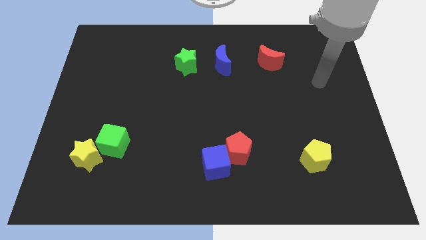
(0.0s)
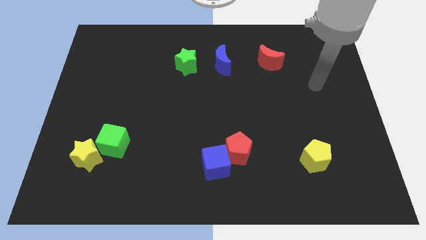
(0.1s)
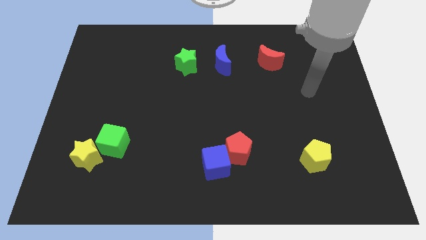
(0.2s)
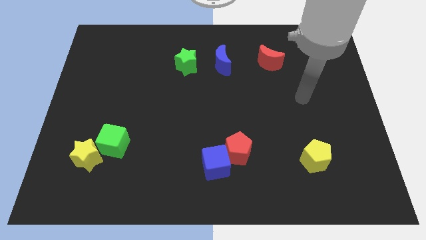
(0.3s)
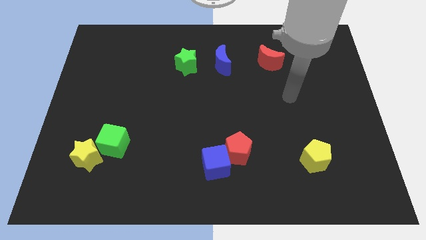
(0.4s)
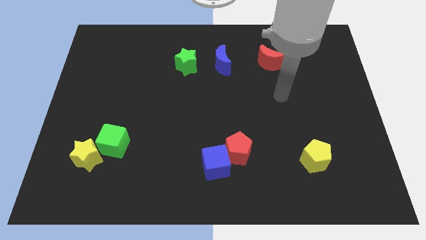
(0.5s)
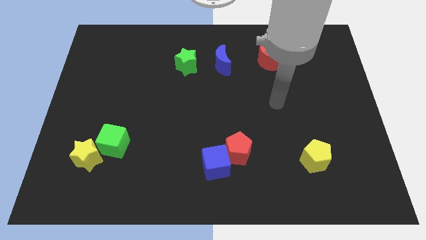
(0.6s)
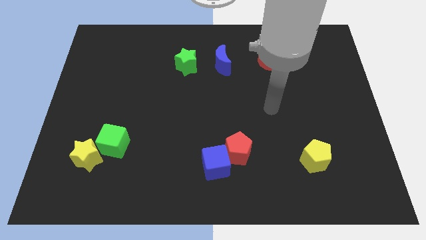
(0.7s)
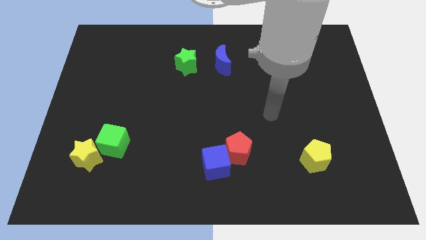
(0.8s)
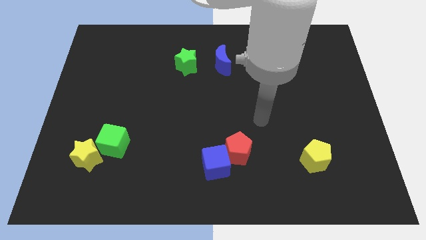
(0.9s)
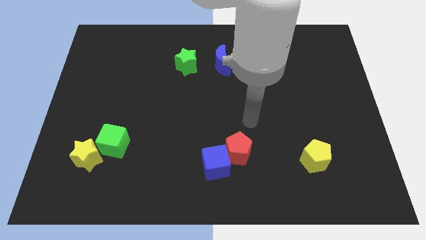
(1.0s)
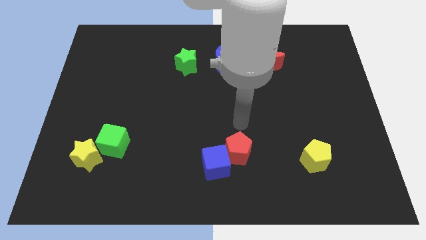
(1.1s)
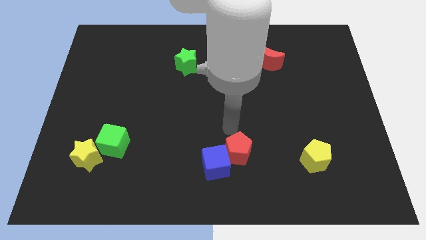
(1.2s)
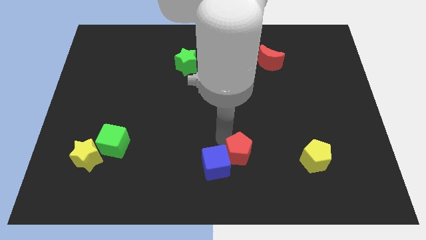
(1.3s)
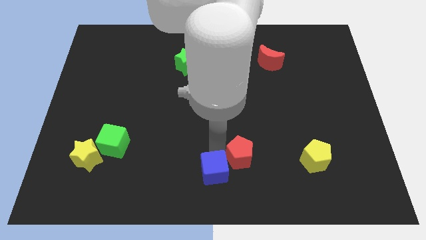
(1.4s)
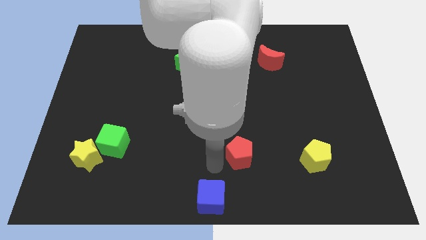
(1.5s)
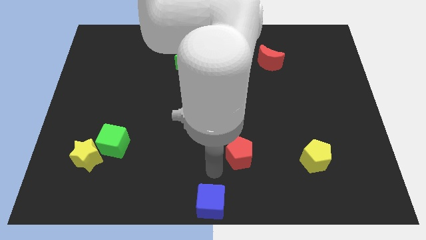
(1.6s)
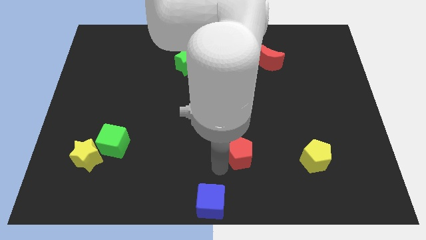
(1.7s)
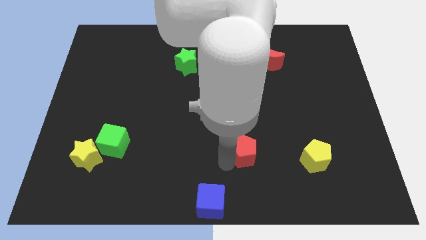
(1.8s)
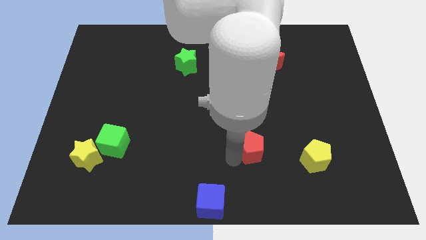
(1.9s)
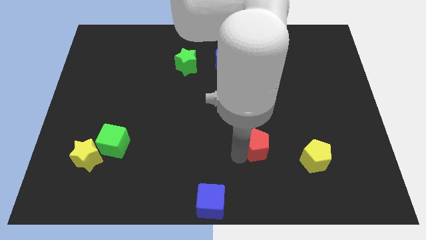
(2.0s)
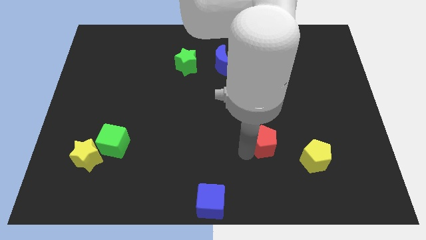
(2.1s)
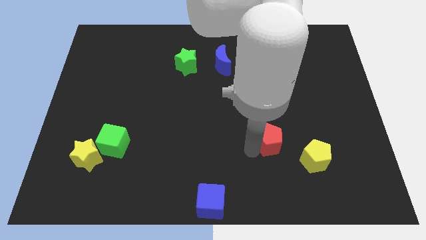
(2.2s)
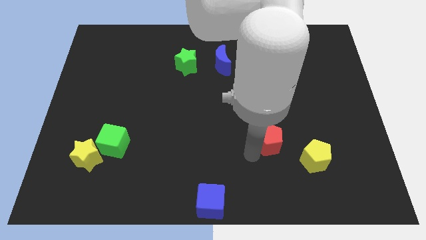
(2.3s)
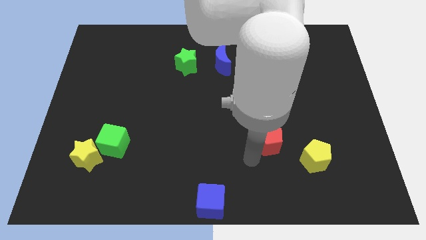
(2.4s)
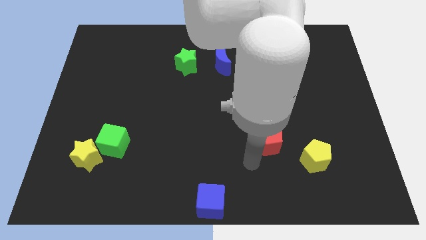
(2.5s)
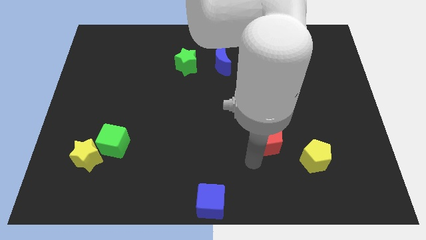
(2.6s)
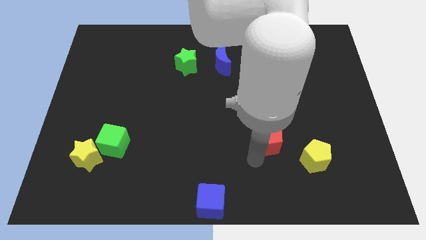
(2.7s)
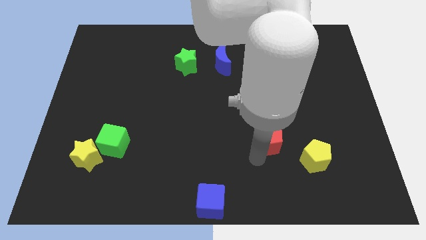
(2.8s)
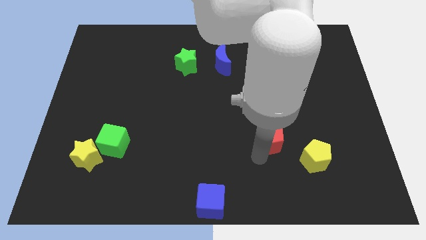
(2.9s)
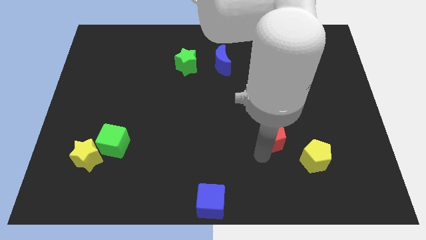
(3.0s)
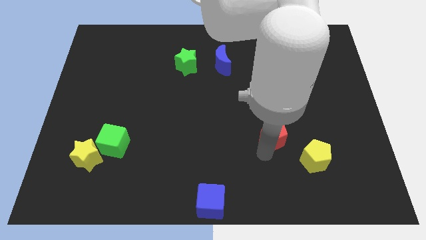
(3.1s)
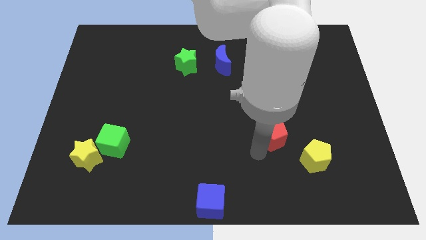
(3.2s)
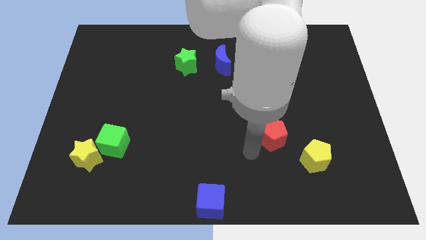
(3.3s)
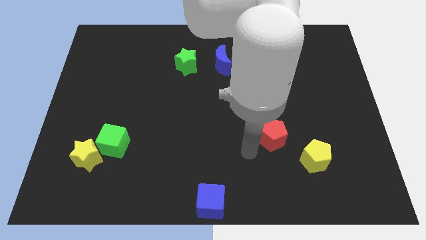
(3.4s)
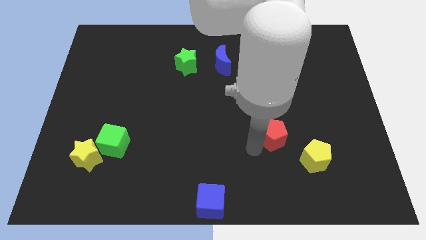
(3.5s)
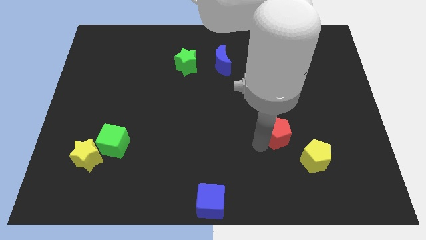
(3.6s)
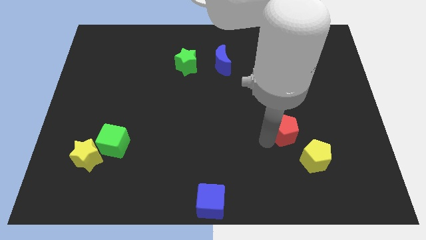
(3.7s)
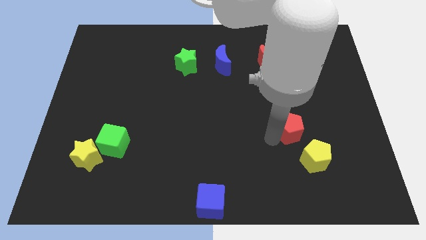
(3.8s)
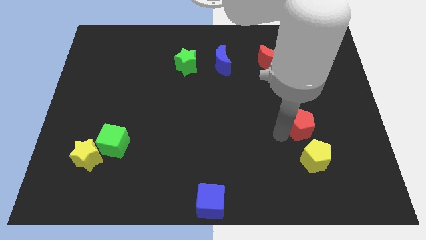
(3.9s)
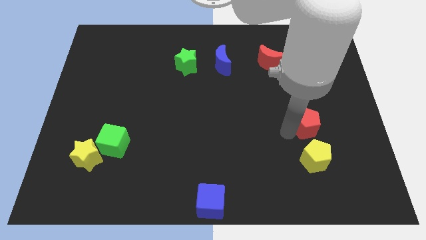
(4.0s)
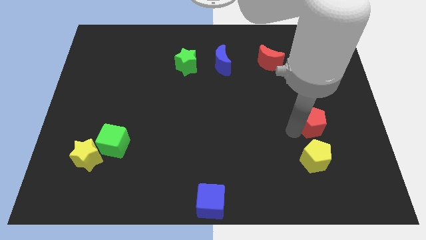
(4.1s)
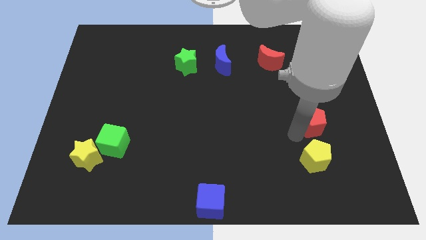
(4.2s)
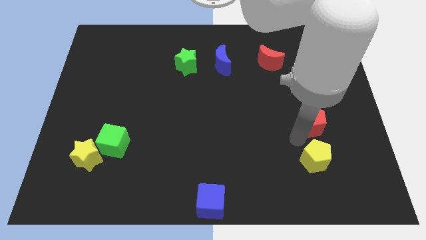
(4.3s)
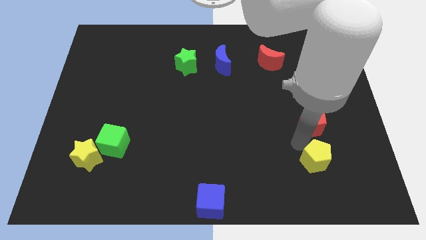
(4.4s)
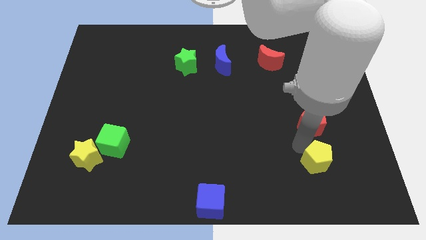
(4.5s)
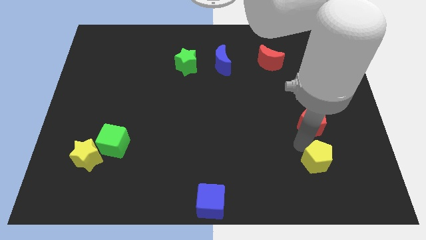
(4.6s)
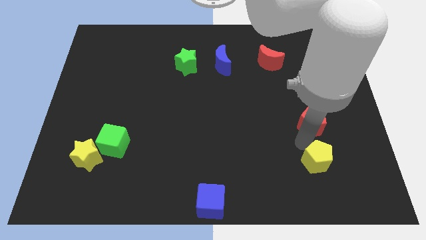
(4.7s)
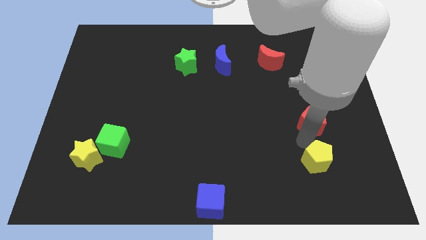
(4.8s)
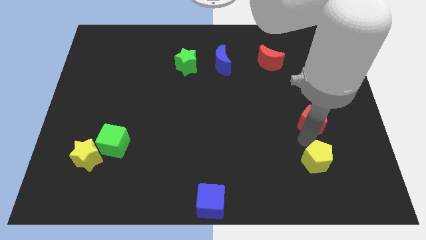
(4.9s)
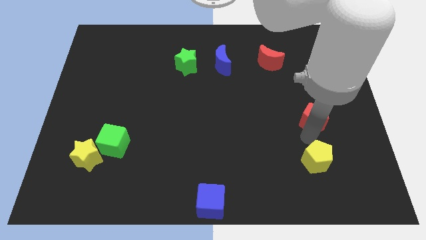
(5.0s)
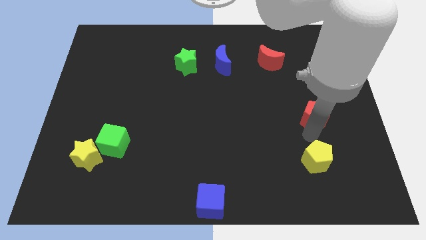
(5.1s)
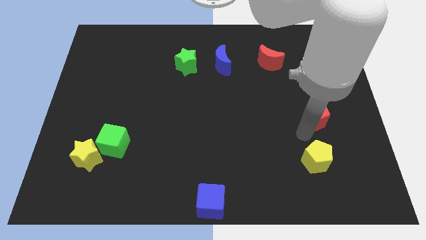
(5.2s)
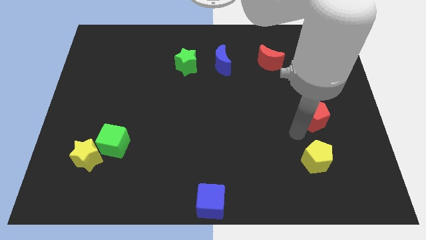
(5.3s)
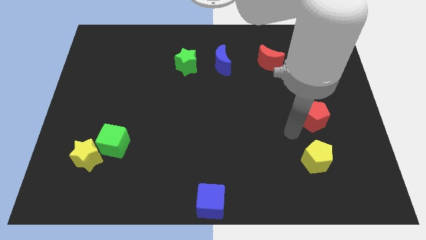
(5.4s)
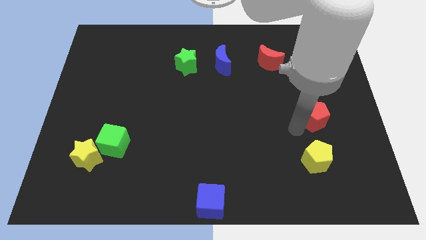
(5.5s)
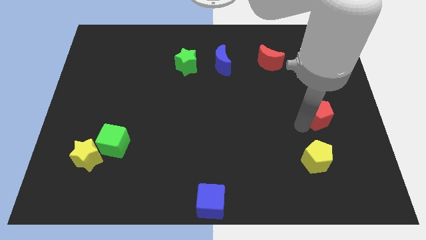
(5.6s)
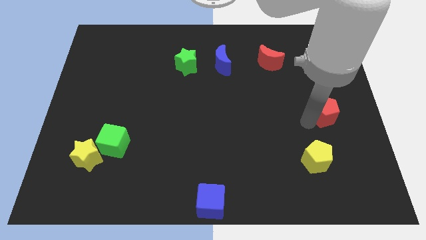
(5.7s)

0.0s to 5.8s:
slide the red pentagon to the right side

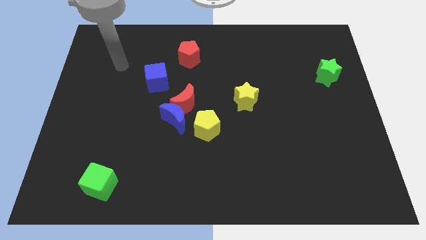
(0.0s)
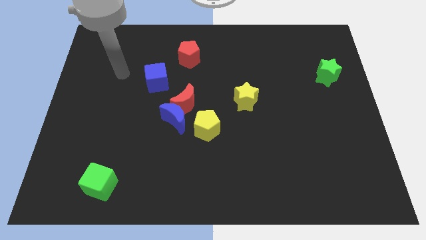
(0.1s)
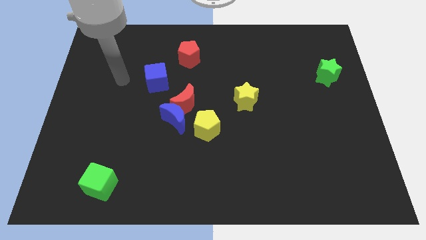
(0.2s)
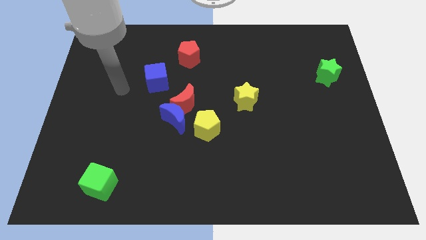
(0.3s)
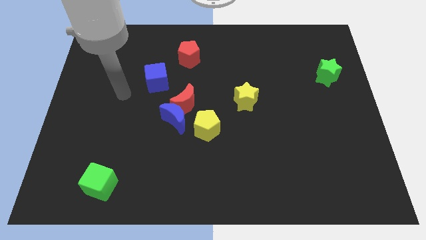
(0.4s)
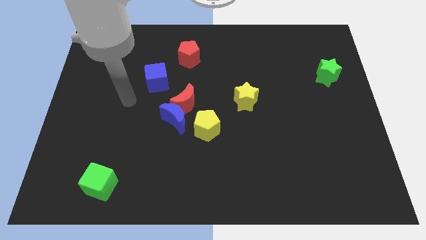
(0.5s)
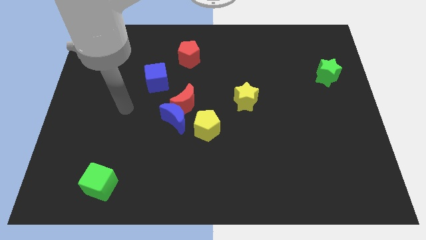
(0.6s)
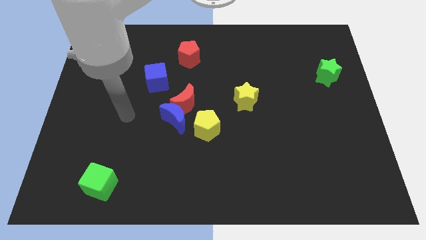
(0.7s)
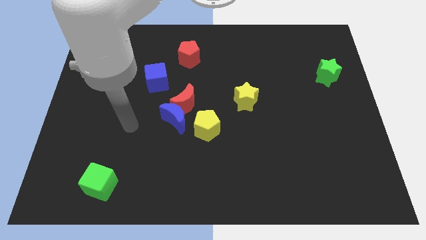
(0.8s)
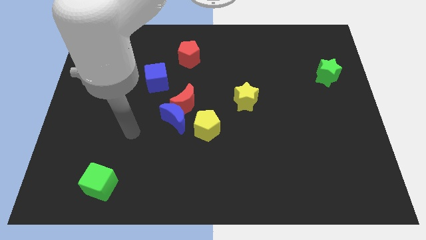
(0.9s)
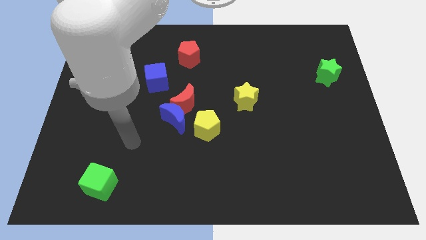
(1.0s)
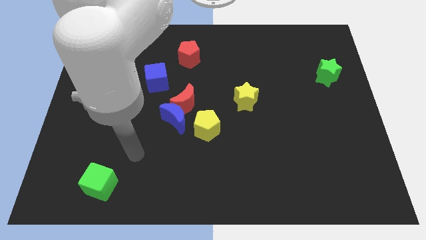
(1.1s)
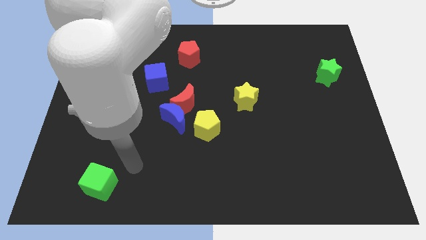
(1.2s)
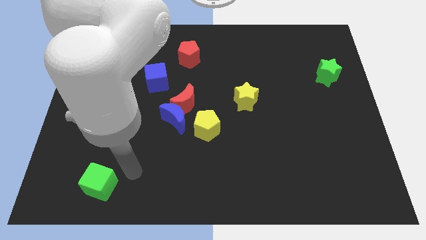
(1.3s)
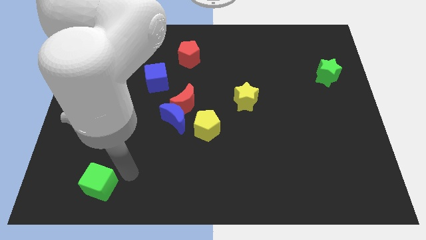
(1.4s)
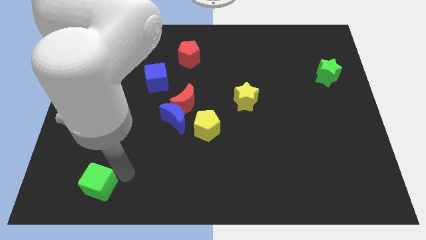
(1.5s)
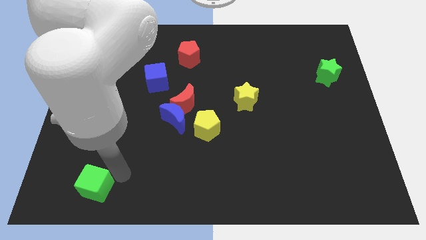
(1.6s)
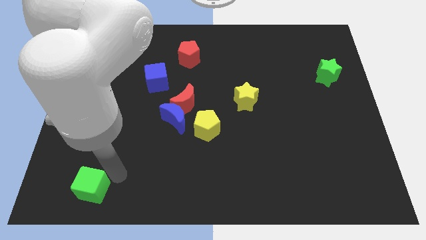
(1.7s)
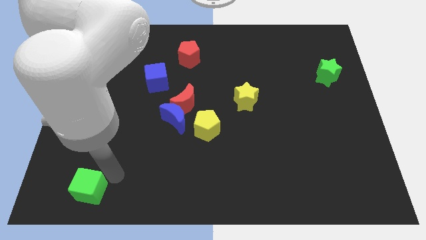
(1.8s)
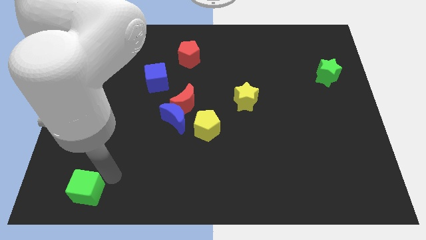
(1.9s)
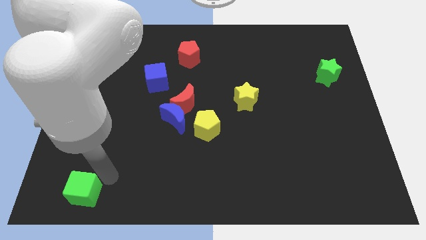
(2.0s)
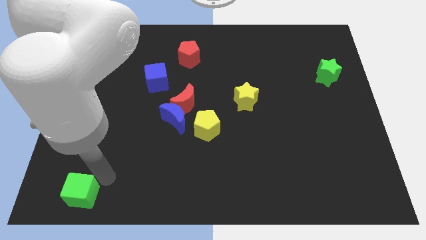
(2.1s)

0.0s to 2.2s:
push the green cube to the bottom left of the board
